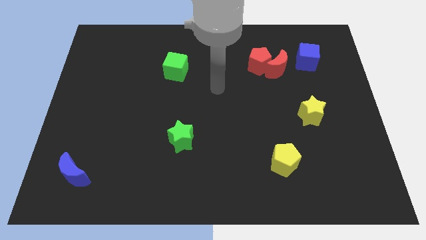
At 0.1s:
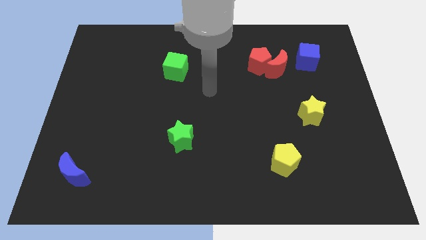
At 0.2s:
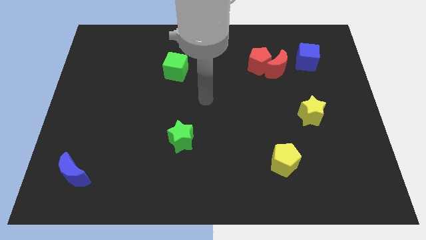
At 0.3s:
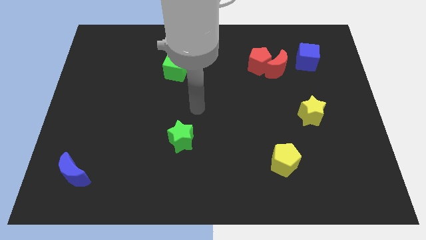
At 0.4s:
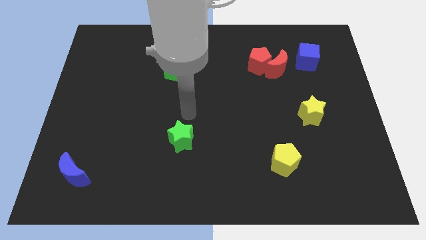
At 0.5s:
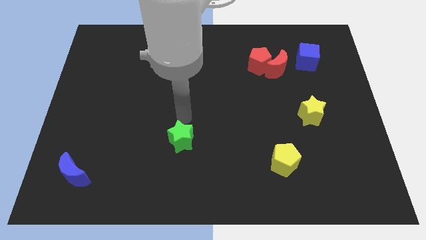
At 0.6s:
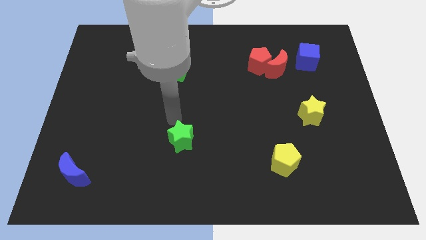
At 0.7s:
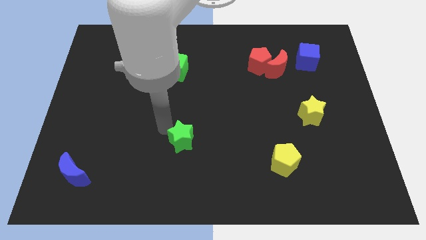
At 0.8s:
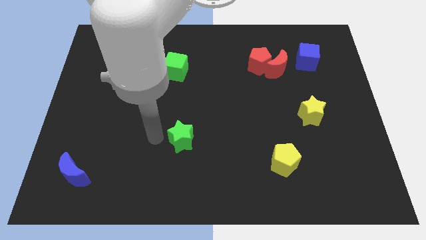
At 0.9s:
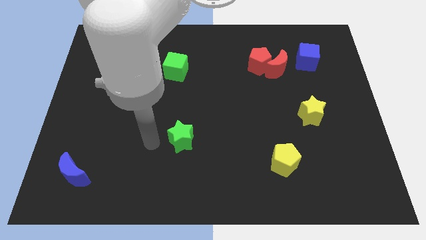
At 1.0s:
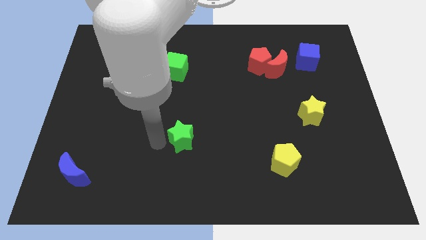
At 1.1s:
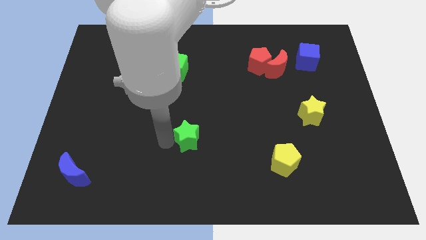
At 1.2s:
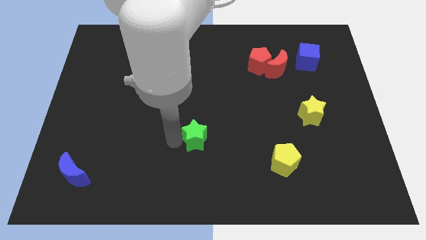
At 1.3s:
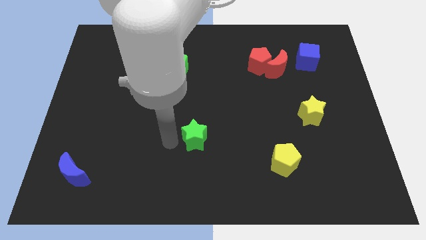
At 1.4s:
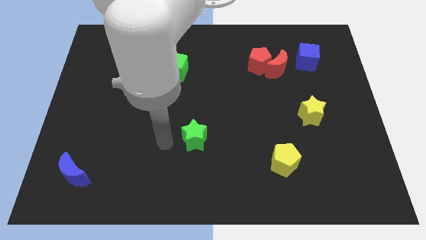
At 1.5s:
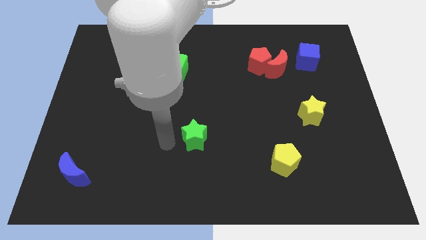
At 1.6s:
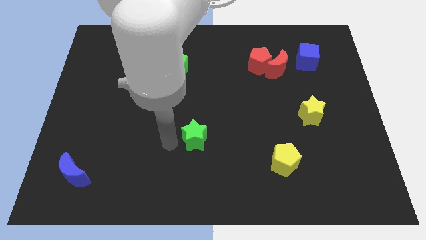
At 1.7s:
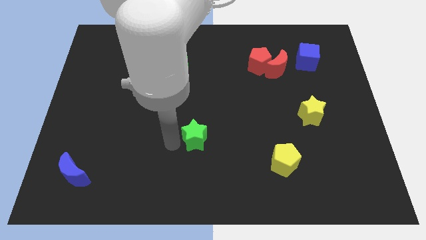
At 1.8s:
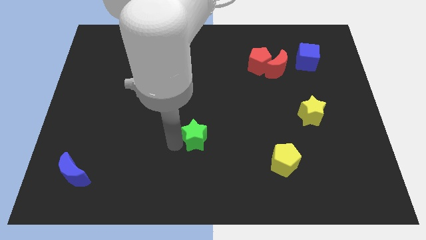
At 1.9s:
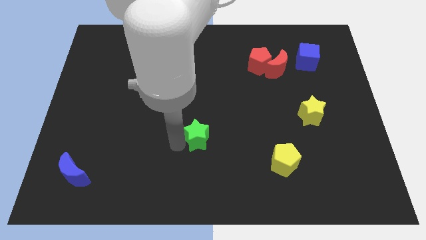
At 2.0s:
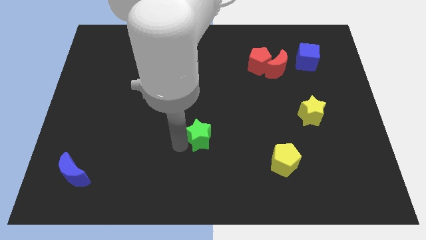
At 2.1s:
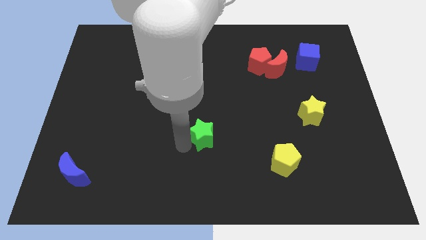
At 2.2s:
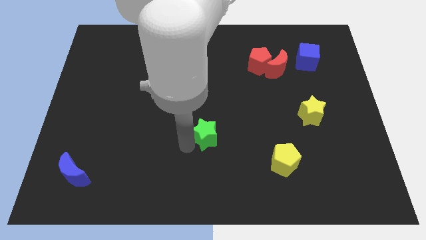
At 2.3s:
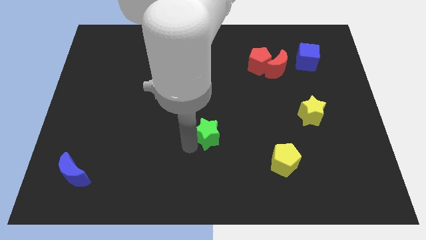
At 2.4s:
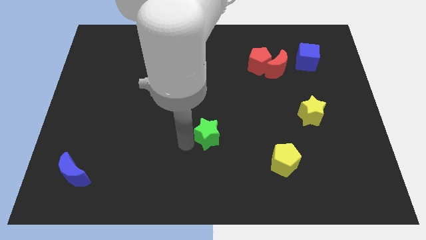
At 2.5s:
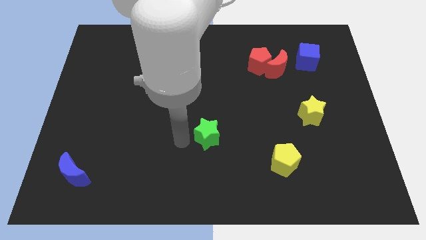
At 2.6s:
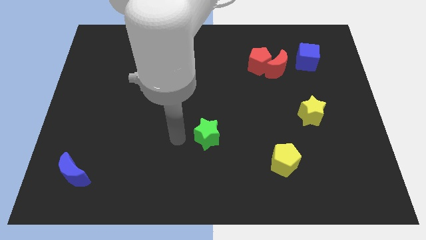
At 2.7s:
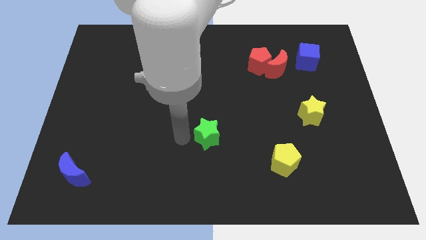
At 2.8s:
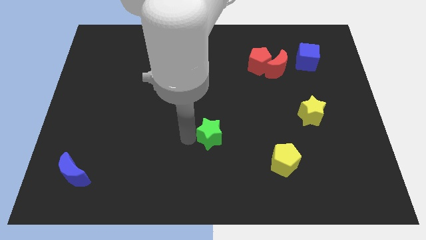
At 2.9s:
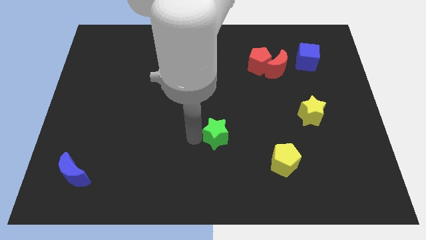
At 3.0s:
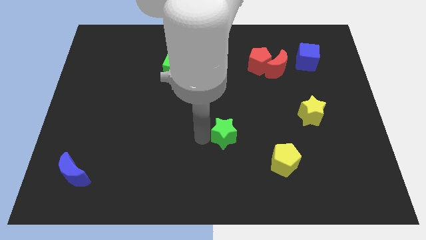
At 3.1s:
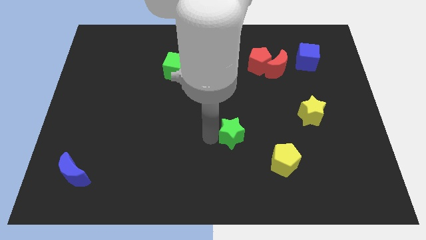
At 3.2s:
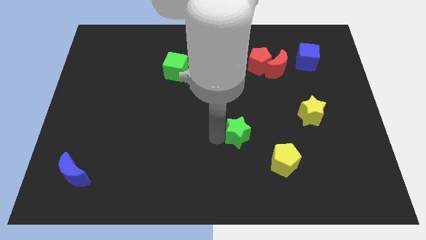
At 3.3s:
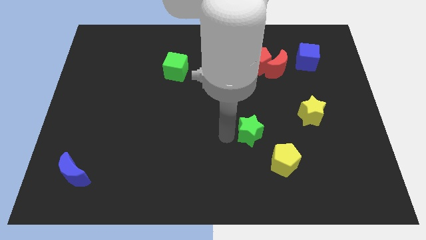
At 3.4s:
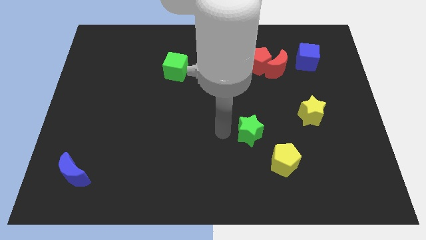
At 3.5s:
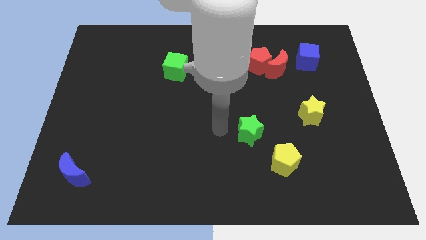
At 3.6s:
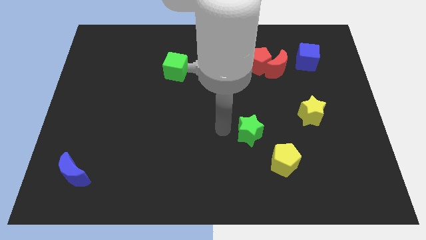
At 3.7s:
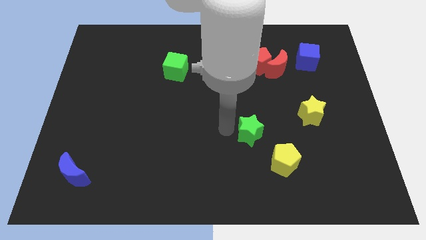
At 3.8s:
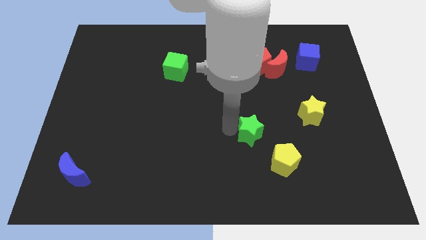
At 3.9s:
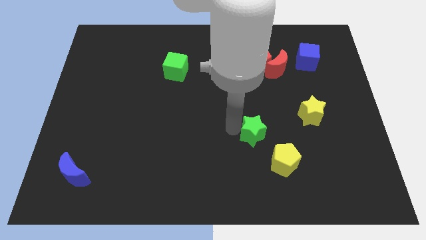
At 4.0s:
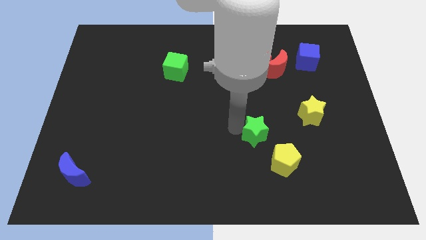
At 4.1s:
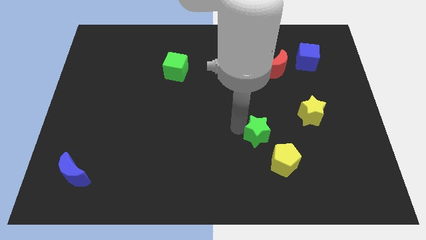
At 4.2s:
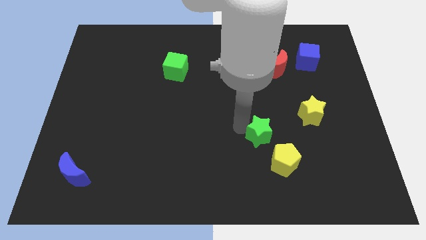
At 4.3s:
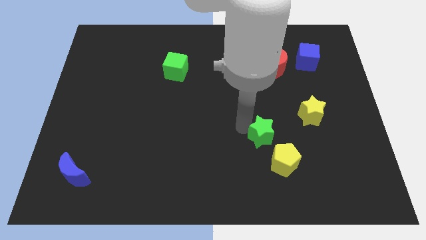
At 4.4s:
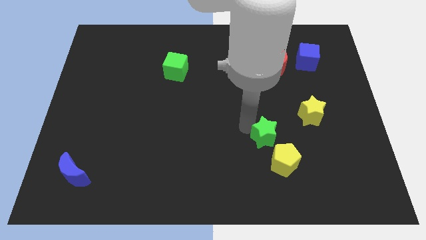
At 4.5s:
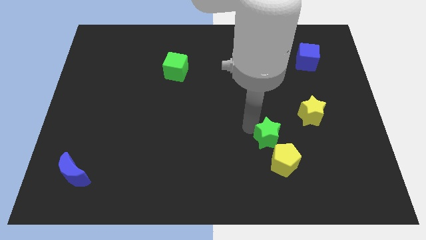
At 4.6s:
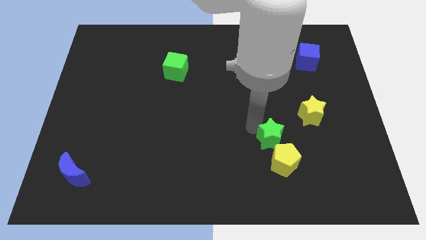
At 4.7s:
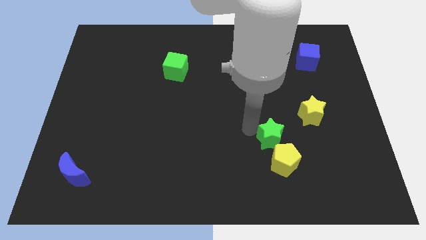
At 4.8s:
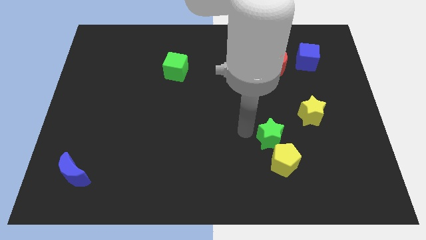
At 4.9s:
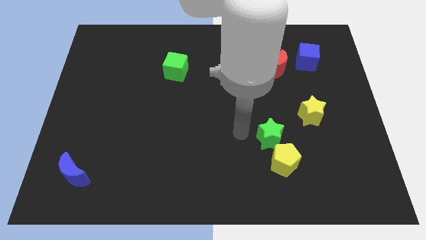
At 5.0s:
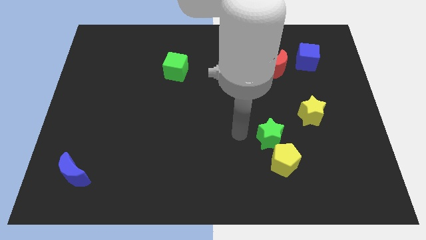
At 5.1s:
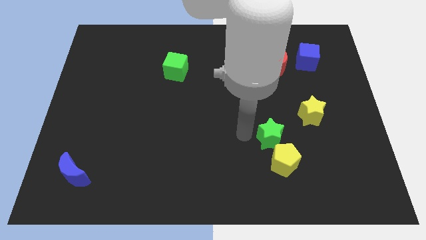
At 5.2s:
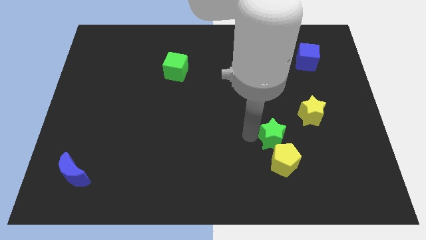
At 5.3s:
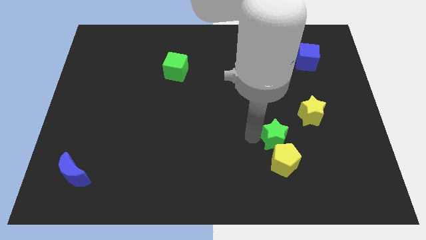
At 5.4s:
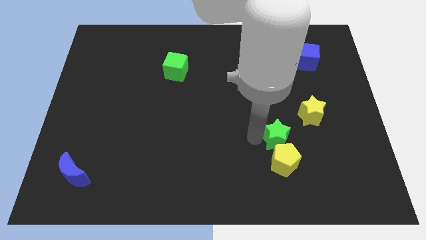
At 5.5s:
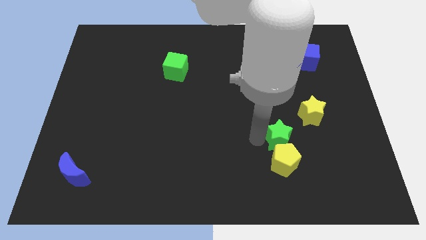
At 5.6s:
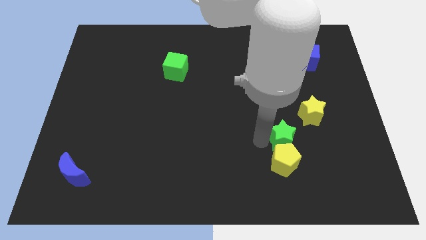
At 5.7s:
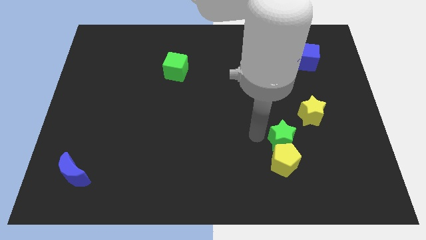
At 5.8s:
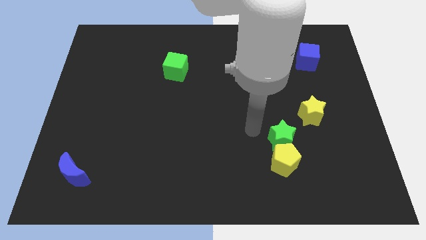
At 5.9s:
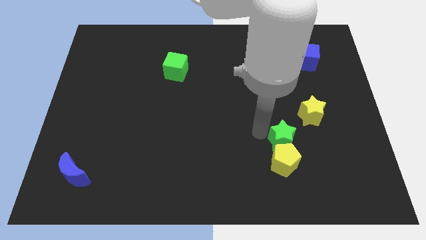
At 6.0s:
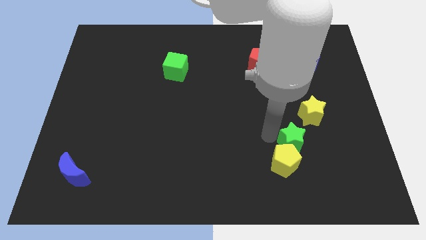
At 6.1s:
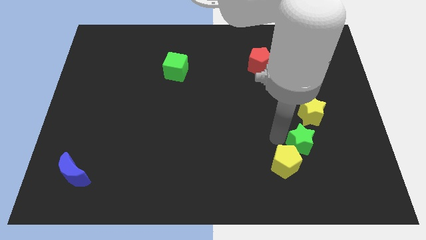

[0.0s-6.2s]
put the green star below the yellow star
